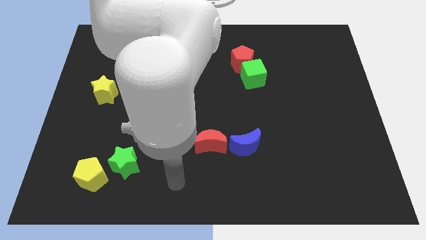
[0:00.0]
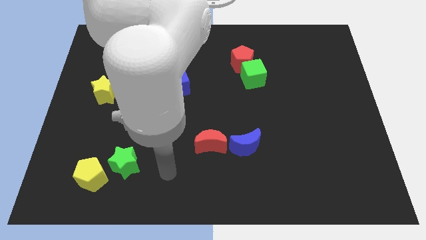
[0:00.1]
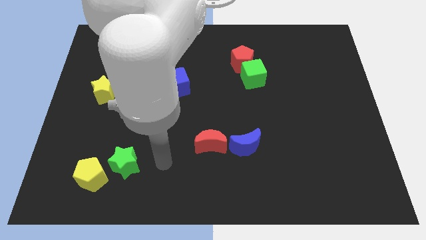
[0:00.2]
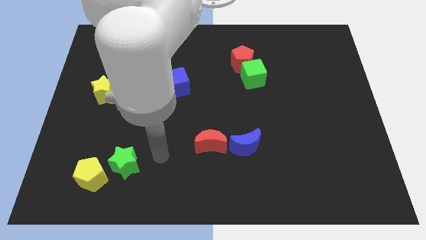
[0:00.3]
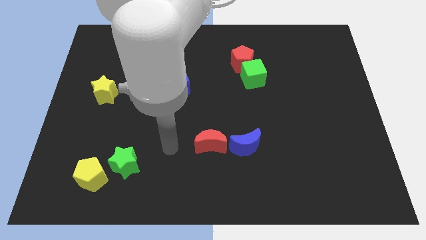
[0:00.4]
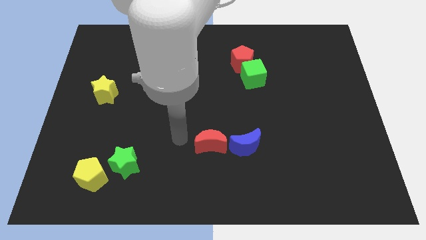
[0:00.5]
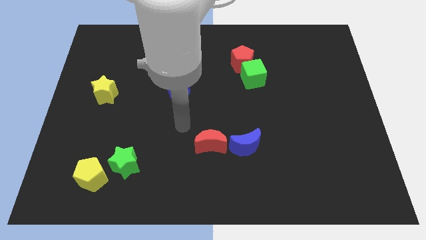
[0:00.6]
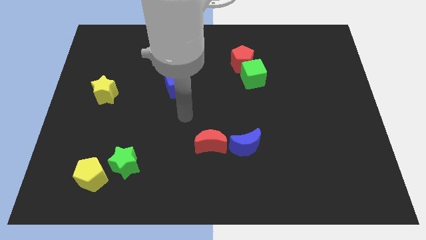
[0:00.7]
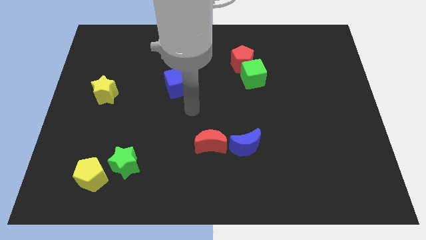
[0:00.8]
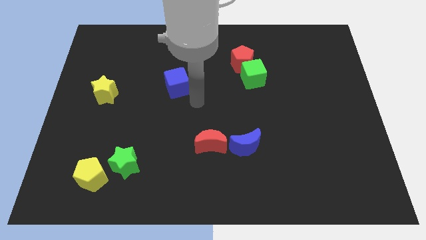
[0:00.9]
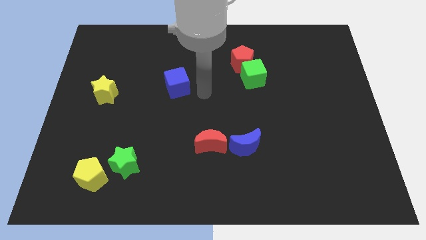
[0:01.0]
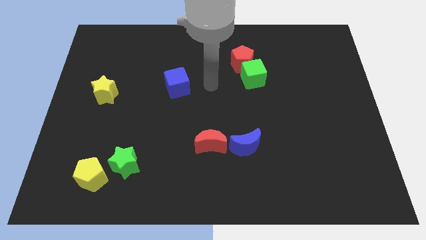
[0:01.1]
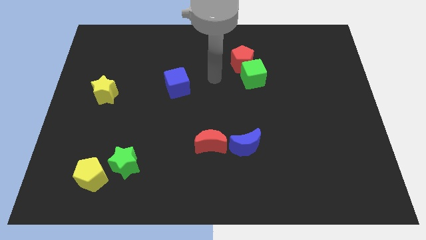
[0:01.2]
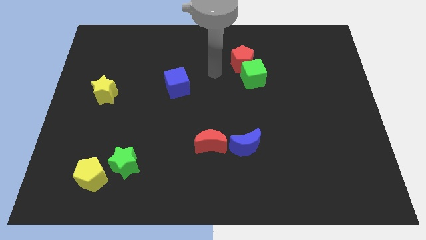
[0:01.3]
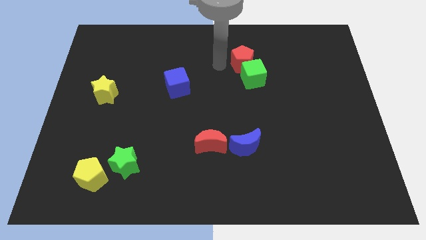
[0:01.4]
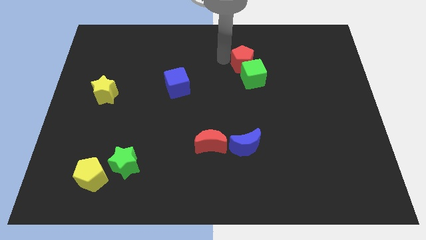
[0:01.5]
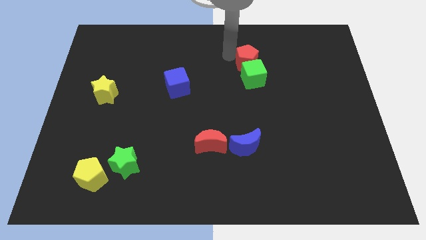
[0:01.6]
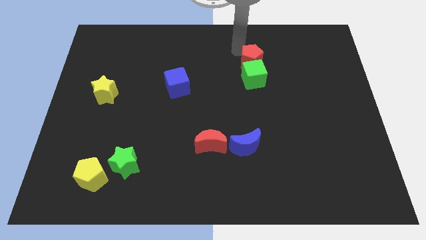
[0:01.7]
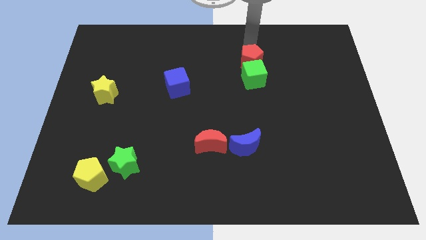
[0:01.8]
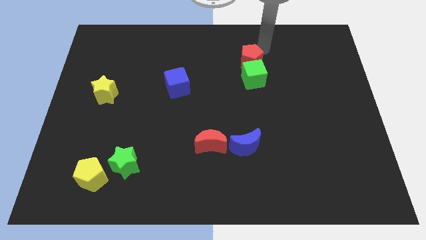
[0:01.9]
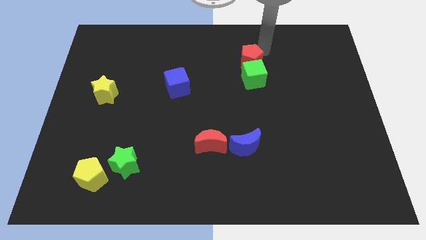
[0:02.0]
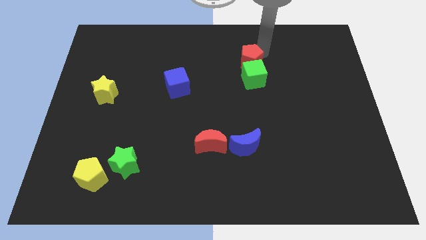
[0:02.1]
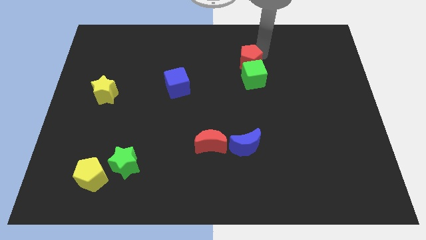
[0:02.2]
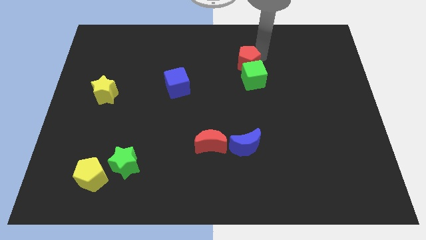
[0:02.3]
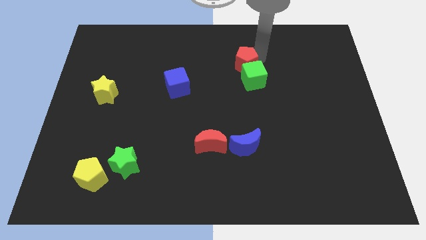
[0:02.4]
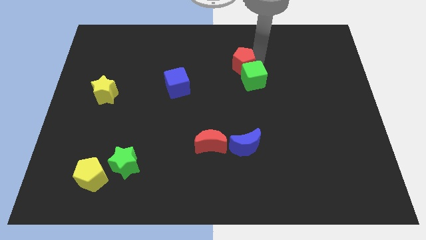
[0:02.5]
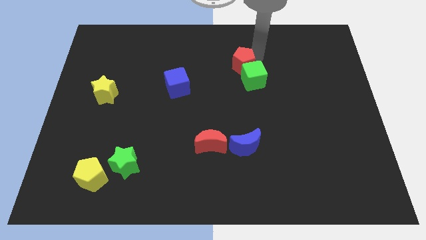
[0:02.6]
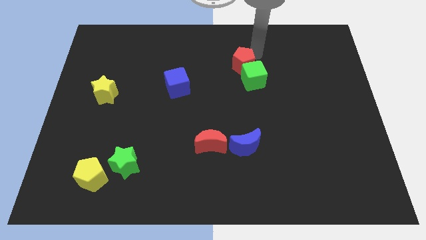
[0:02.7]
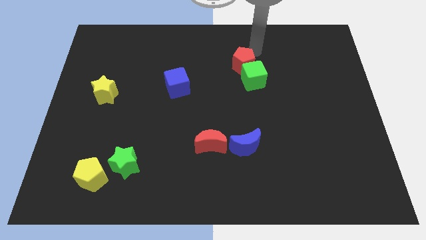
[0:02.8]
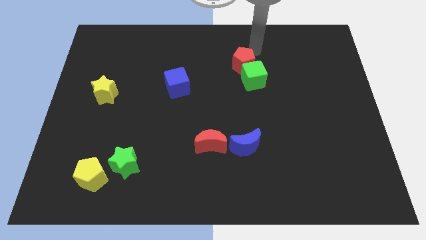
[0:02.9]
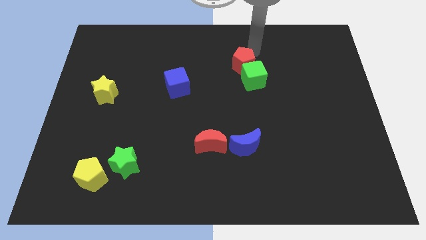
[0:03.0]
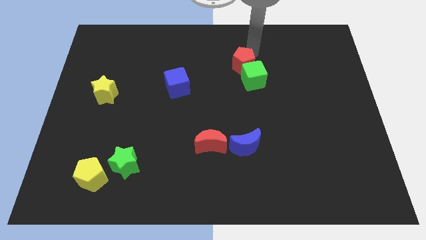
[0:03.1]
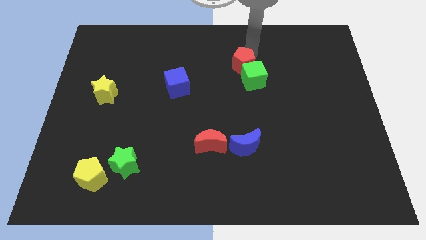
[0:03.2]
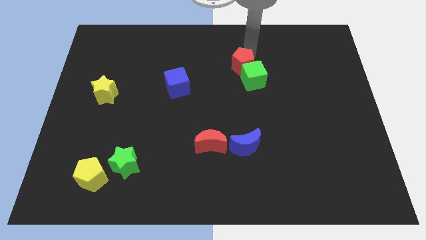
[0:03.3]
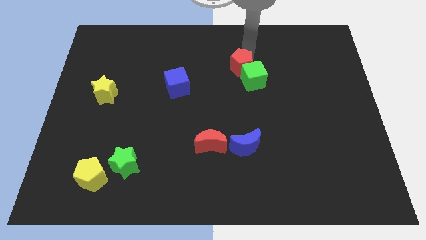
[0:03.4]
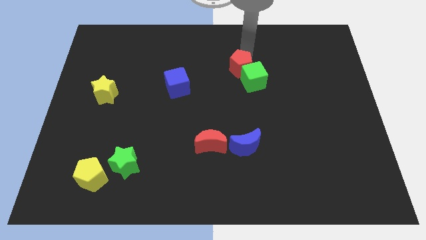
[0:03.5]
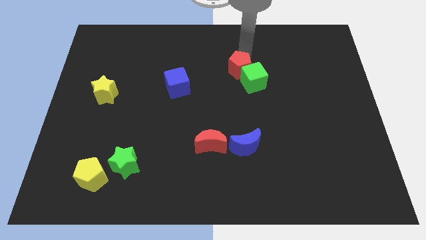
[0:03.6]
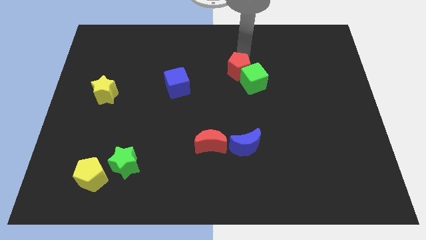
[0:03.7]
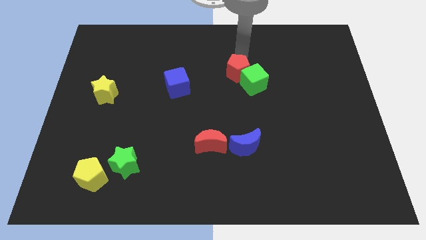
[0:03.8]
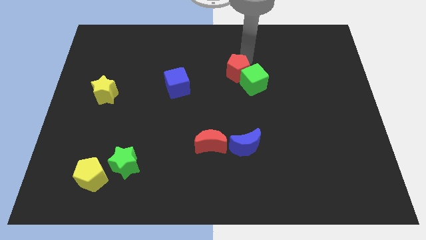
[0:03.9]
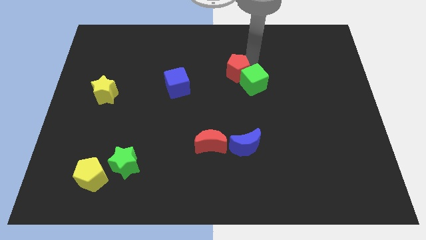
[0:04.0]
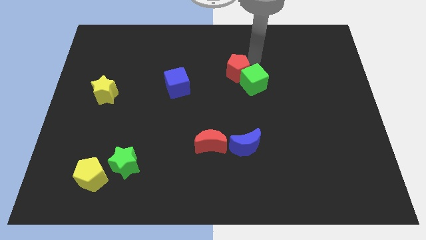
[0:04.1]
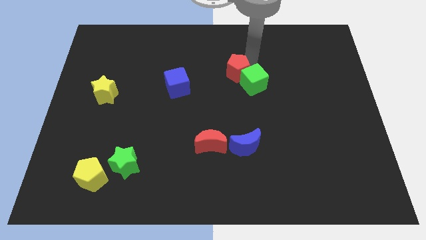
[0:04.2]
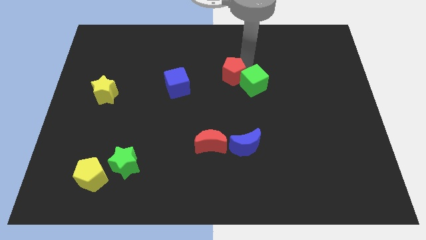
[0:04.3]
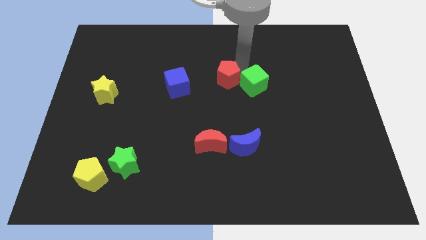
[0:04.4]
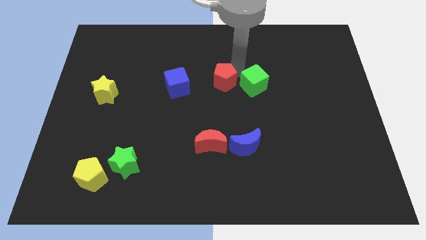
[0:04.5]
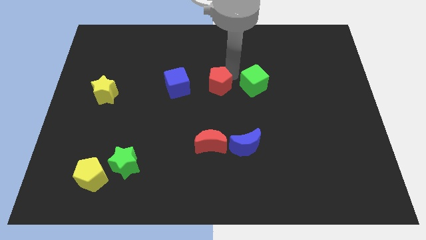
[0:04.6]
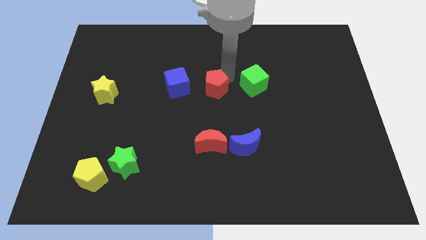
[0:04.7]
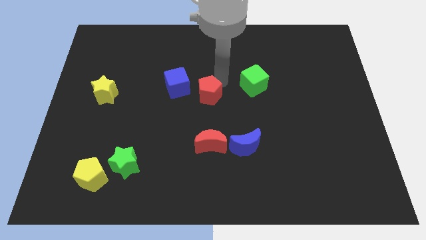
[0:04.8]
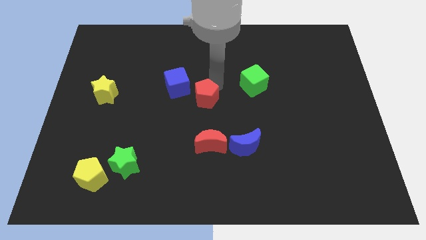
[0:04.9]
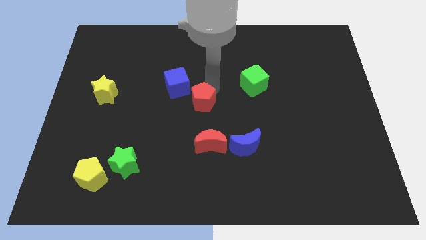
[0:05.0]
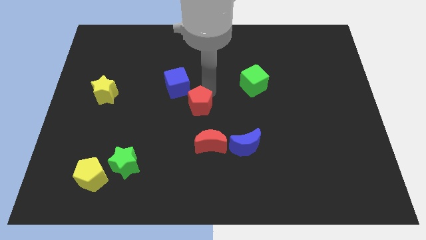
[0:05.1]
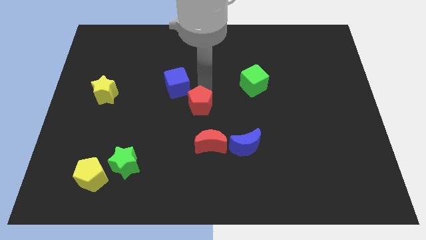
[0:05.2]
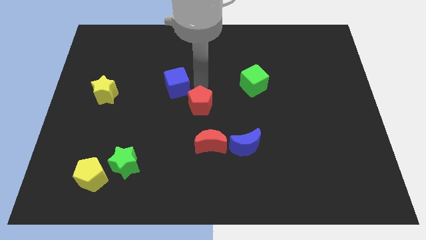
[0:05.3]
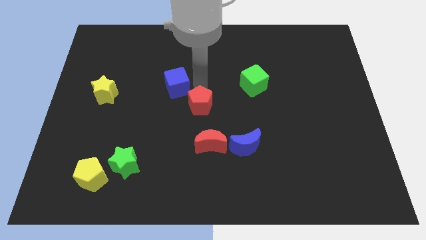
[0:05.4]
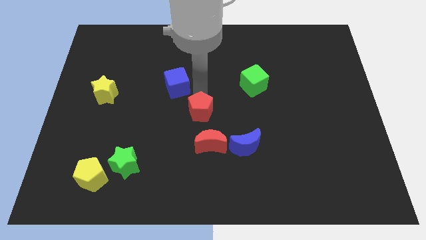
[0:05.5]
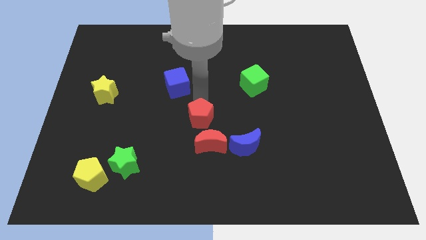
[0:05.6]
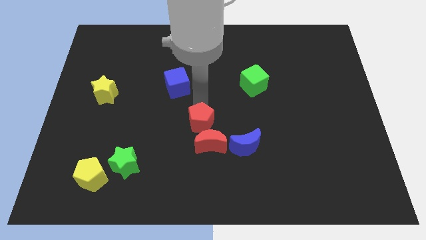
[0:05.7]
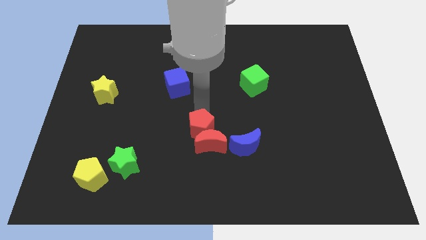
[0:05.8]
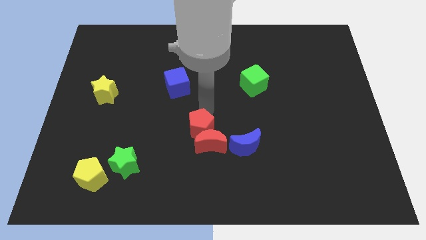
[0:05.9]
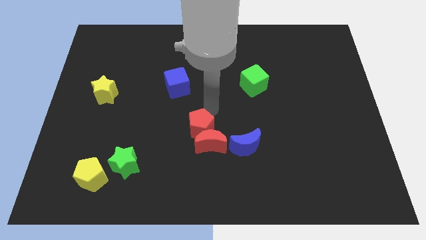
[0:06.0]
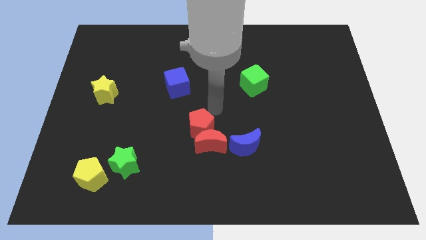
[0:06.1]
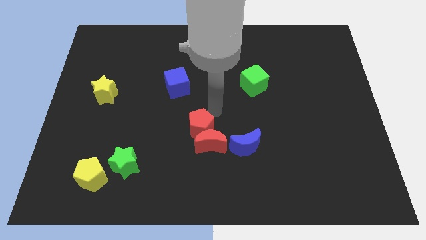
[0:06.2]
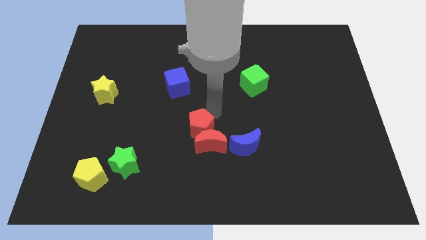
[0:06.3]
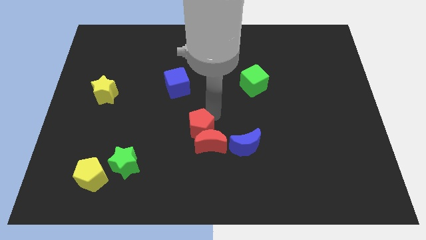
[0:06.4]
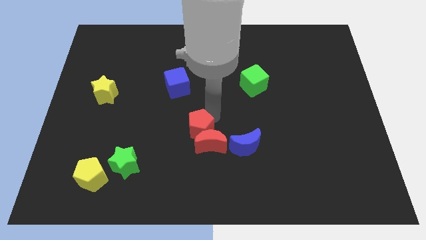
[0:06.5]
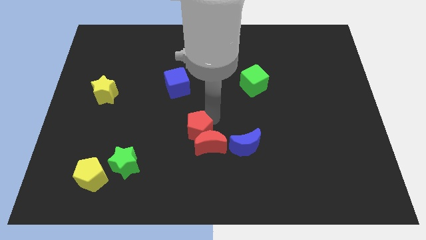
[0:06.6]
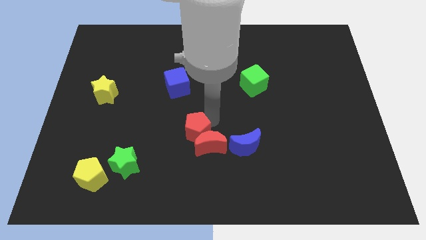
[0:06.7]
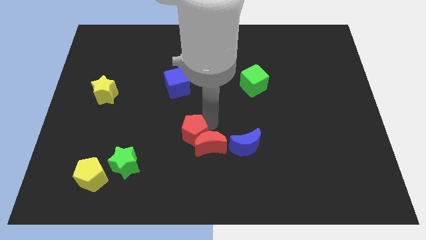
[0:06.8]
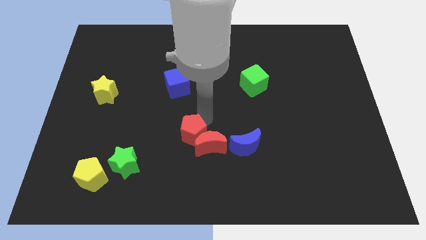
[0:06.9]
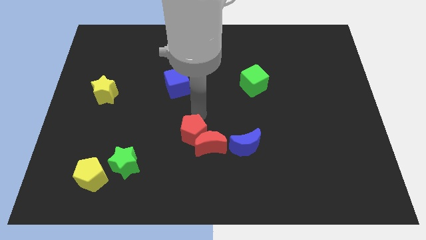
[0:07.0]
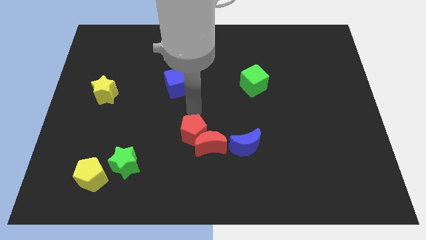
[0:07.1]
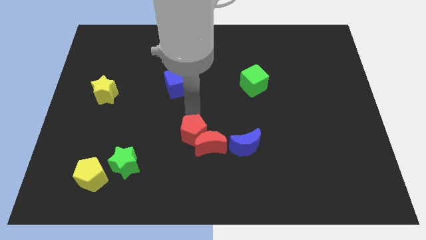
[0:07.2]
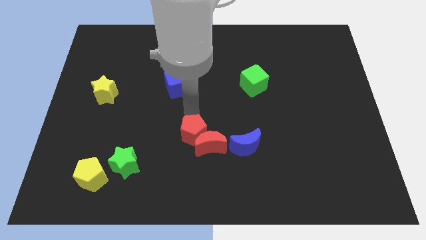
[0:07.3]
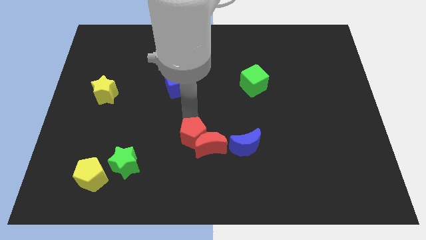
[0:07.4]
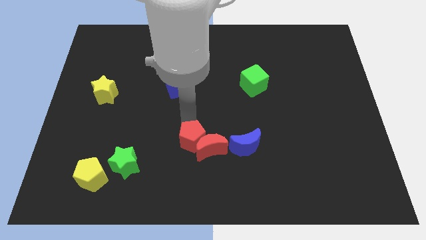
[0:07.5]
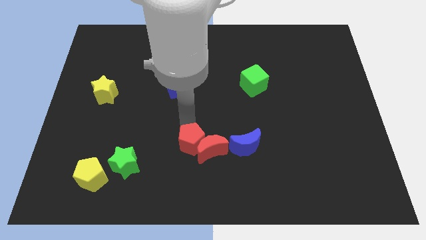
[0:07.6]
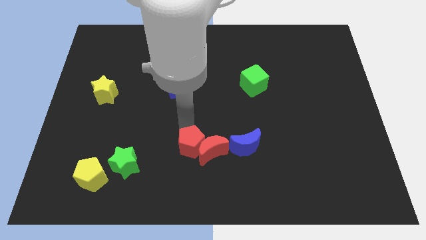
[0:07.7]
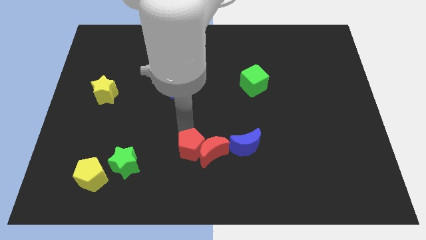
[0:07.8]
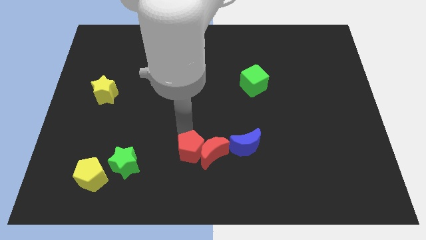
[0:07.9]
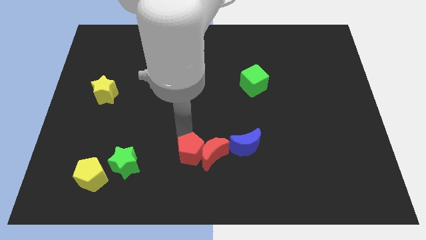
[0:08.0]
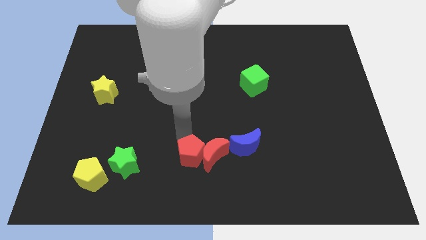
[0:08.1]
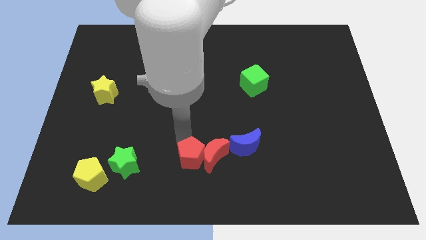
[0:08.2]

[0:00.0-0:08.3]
slide the red pentagon to the bottom
